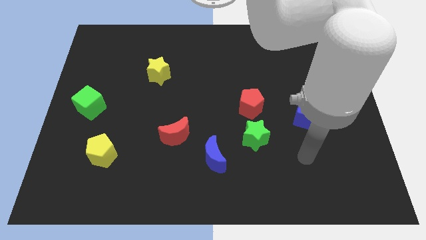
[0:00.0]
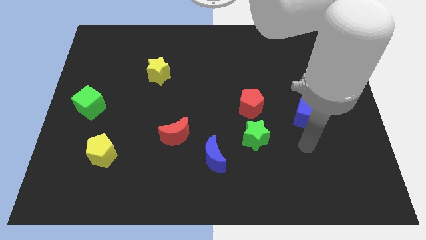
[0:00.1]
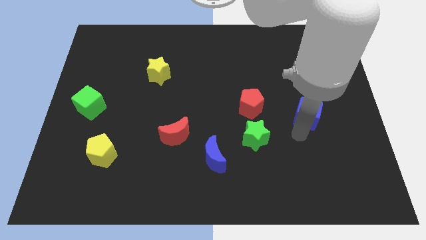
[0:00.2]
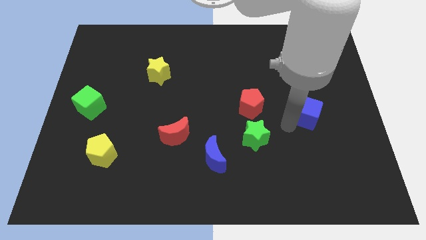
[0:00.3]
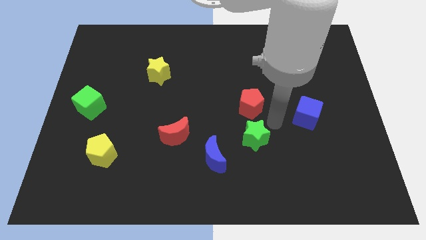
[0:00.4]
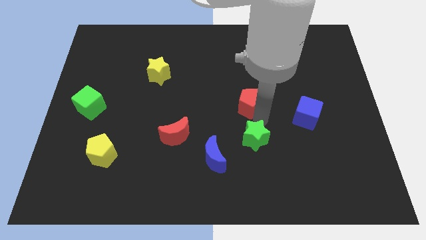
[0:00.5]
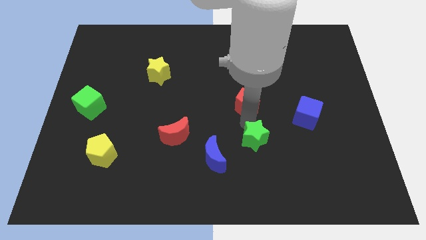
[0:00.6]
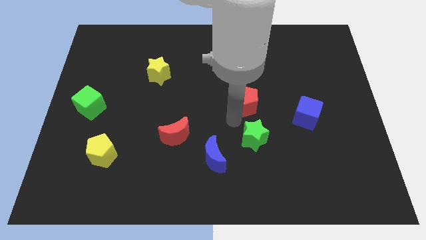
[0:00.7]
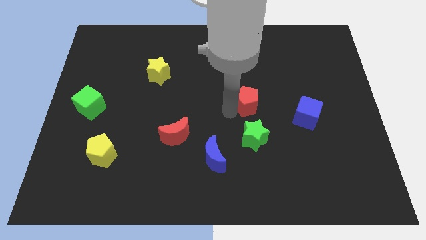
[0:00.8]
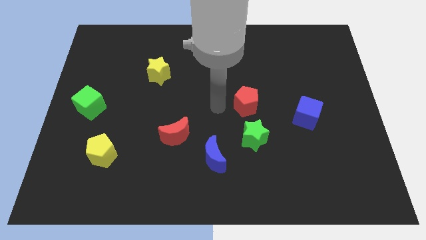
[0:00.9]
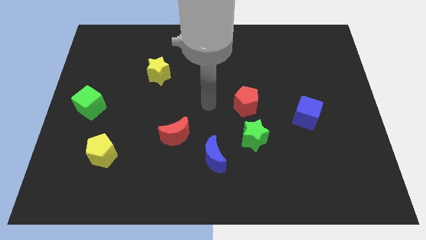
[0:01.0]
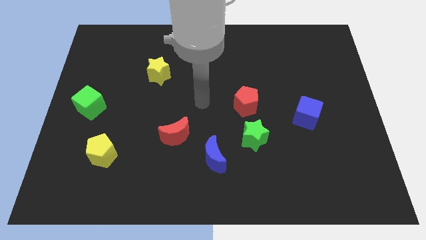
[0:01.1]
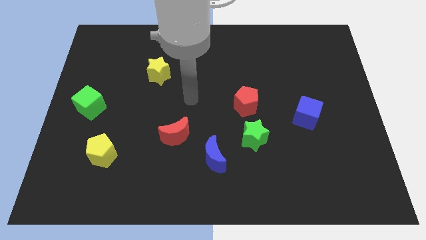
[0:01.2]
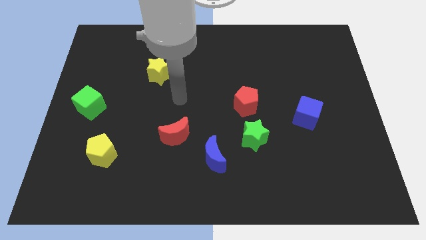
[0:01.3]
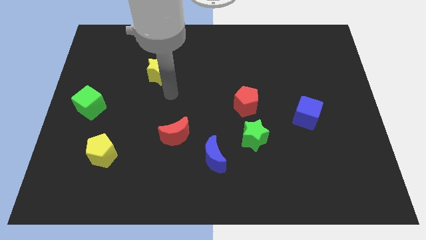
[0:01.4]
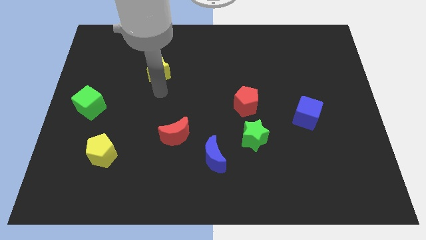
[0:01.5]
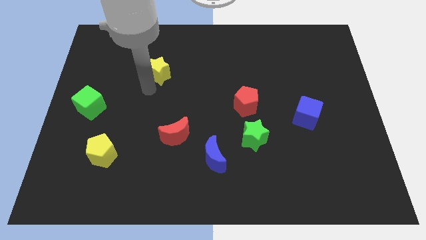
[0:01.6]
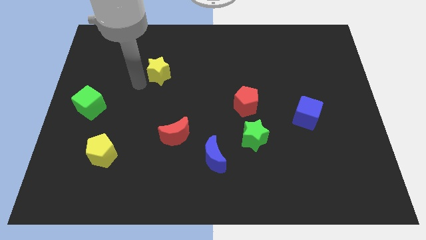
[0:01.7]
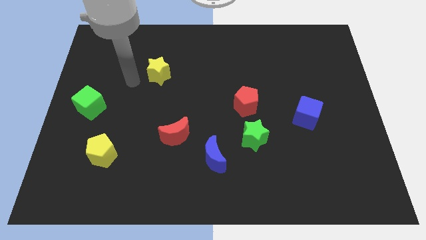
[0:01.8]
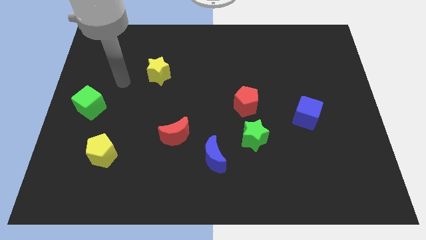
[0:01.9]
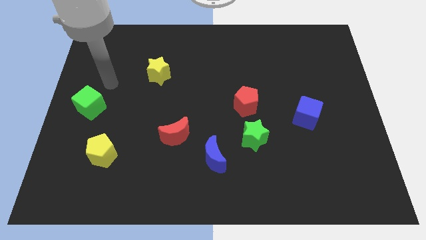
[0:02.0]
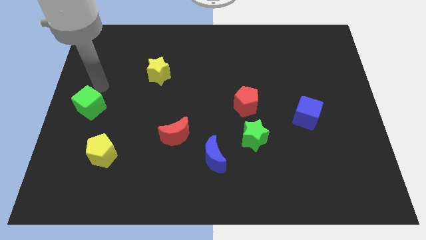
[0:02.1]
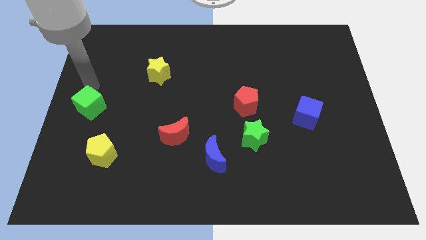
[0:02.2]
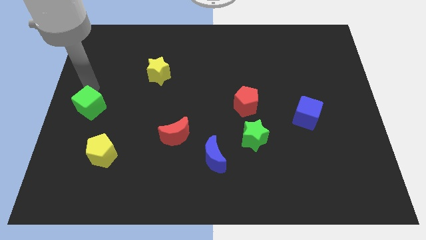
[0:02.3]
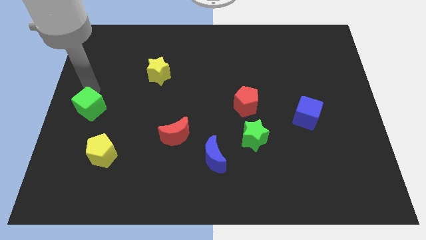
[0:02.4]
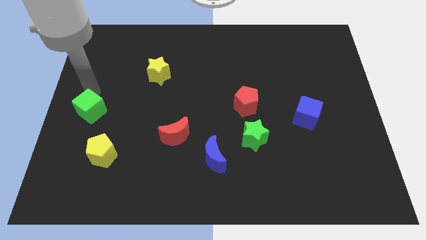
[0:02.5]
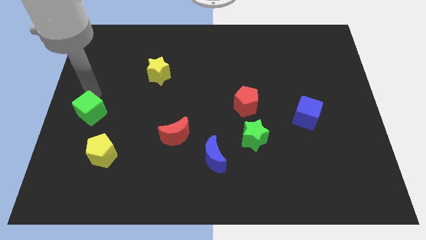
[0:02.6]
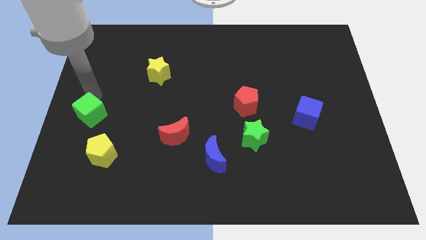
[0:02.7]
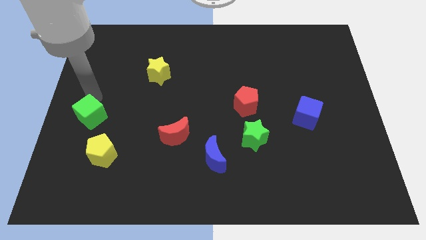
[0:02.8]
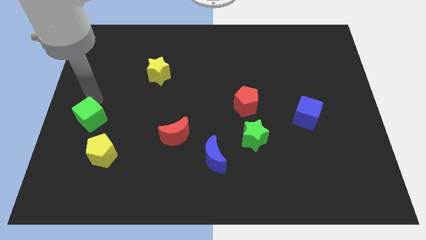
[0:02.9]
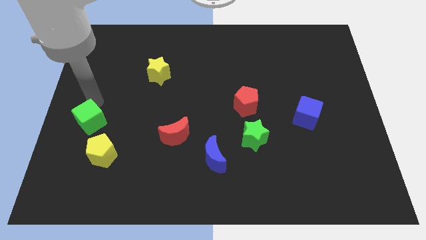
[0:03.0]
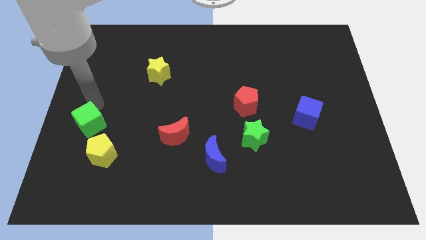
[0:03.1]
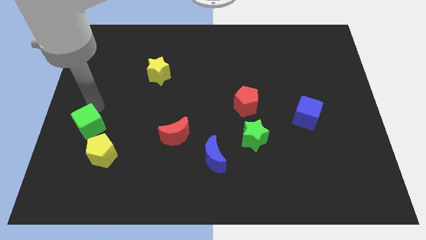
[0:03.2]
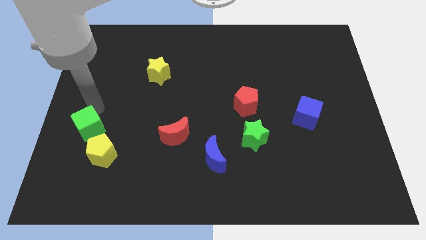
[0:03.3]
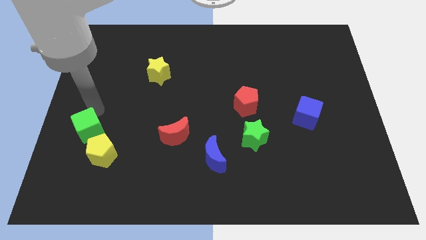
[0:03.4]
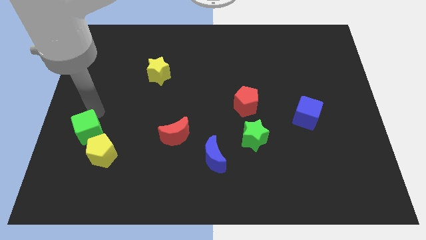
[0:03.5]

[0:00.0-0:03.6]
move the green cube slightly downwards

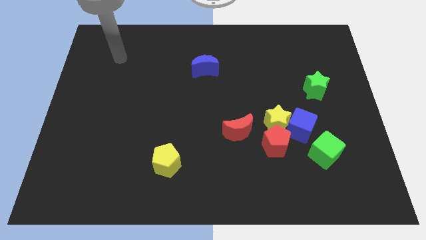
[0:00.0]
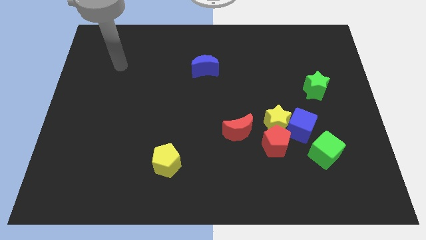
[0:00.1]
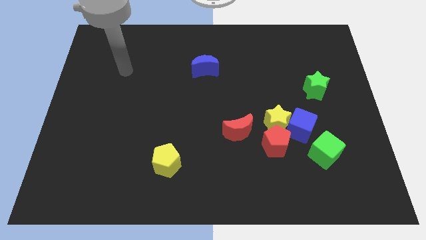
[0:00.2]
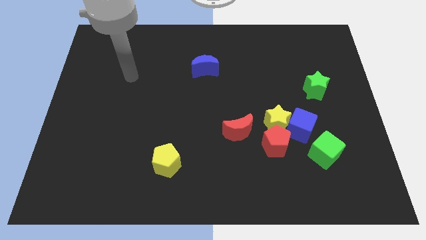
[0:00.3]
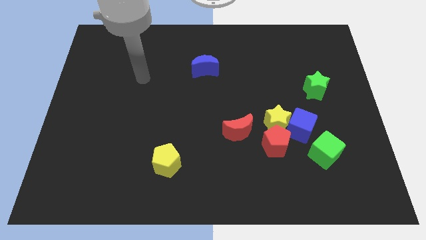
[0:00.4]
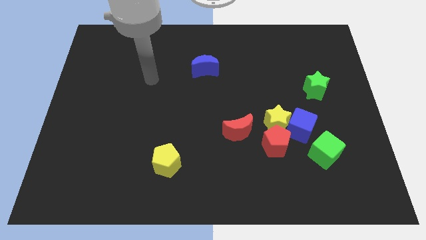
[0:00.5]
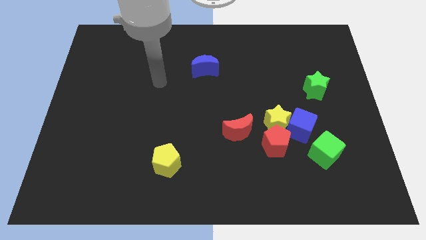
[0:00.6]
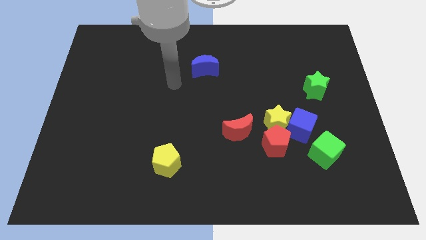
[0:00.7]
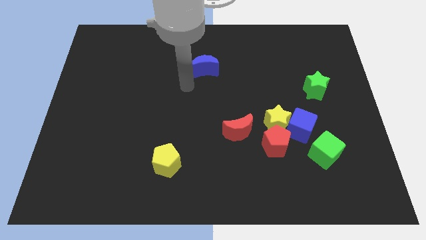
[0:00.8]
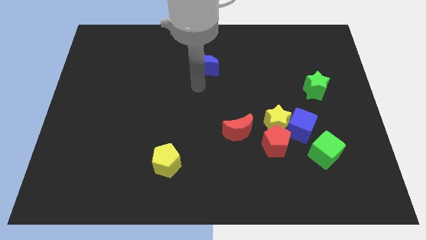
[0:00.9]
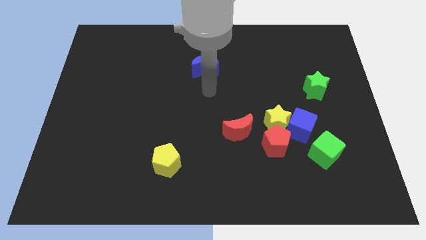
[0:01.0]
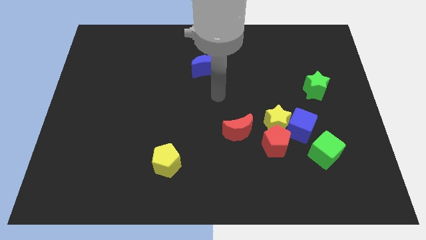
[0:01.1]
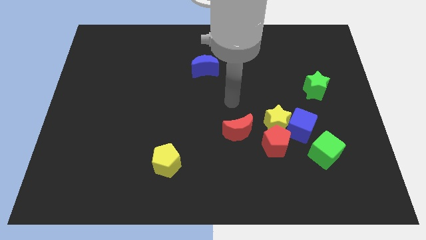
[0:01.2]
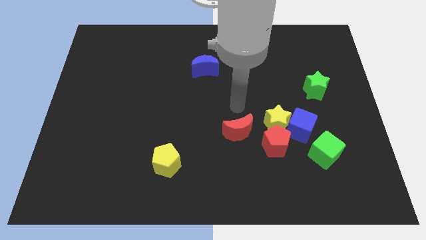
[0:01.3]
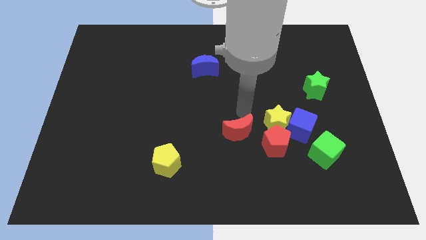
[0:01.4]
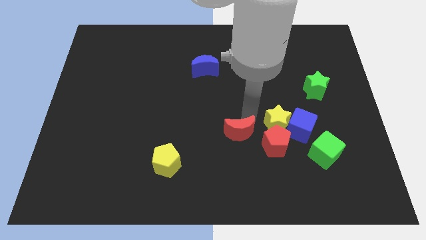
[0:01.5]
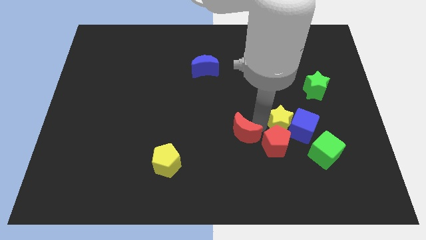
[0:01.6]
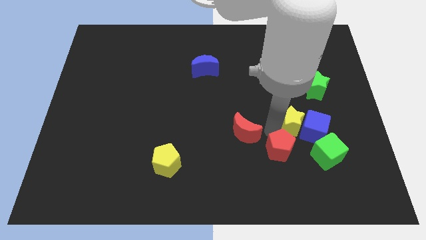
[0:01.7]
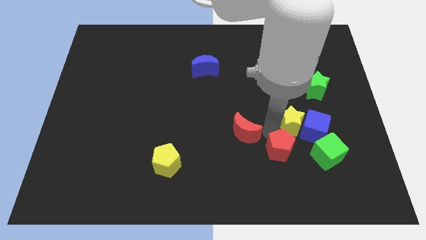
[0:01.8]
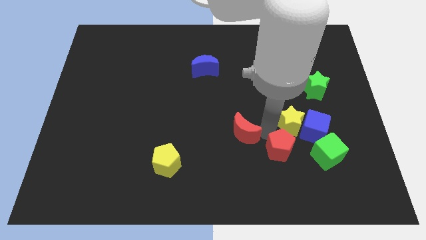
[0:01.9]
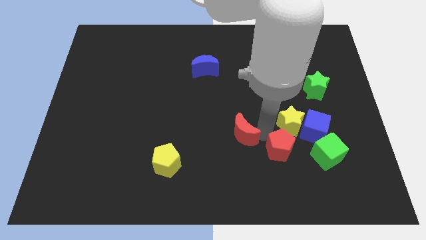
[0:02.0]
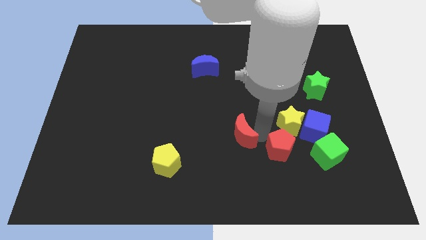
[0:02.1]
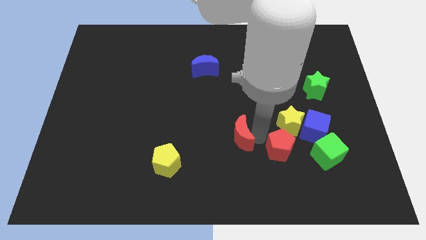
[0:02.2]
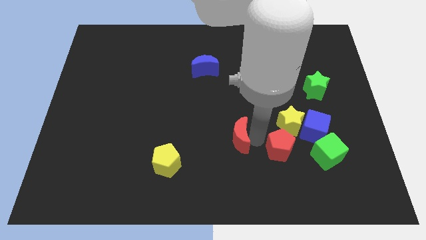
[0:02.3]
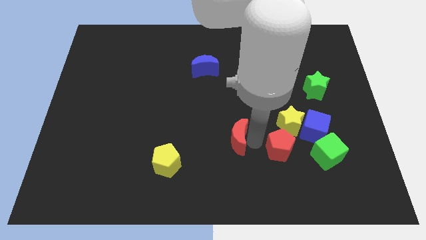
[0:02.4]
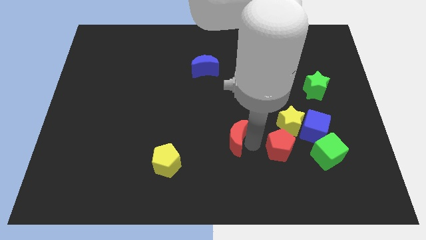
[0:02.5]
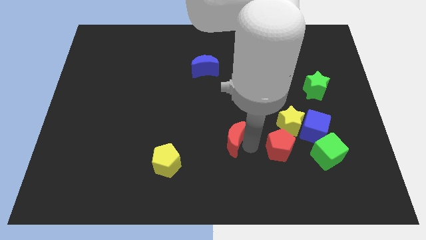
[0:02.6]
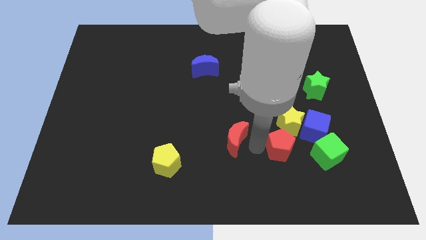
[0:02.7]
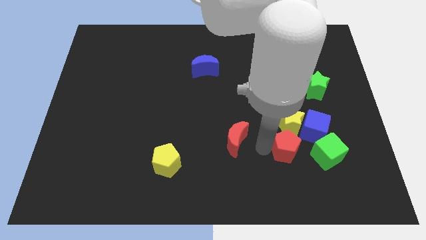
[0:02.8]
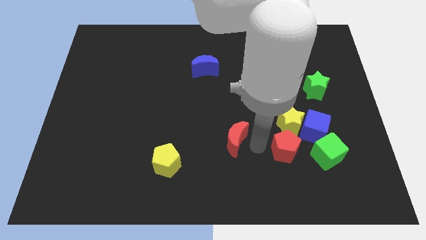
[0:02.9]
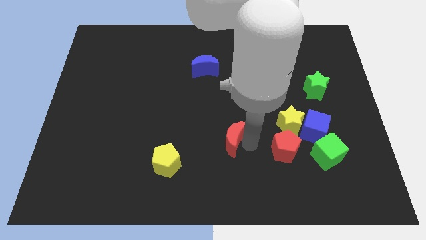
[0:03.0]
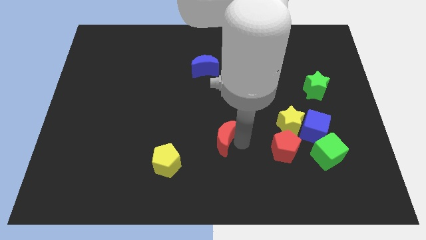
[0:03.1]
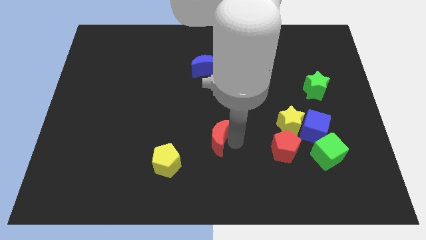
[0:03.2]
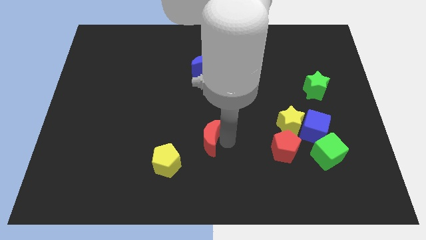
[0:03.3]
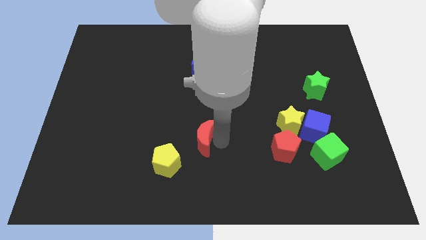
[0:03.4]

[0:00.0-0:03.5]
slide the red moon a bit left

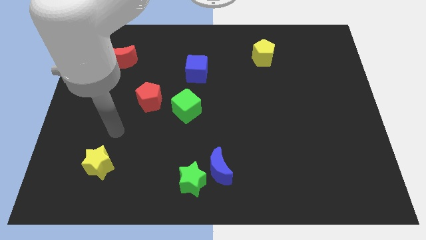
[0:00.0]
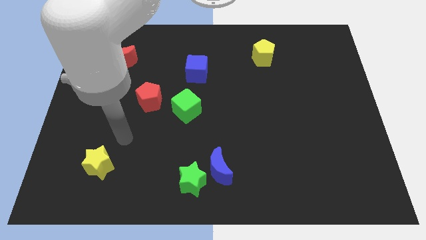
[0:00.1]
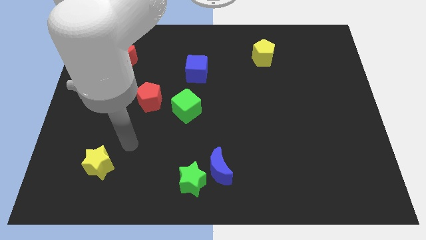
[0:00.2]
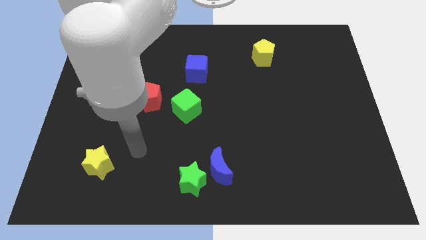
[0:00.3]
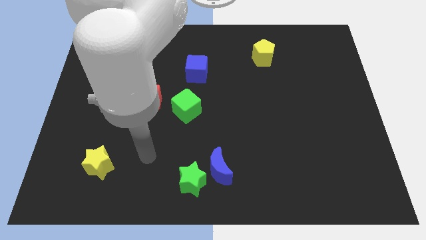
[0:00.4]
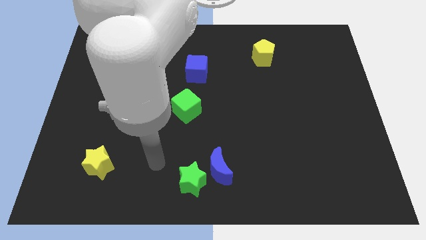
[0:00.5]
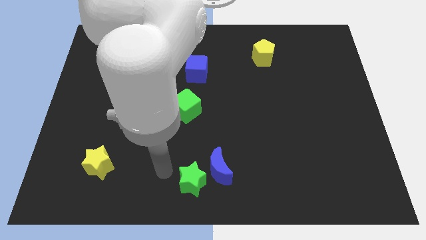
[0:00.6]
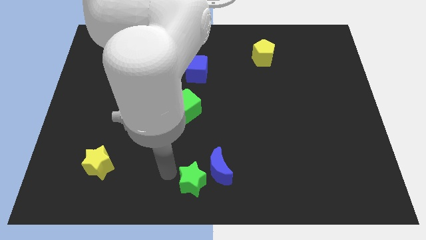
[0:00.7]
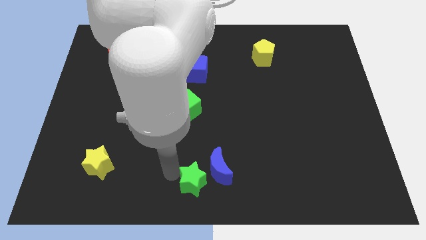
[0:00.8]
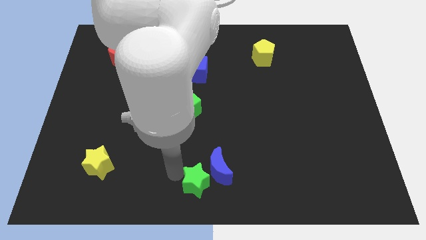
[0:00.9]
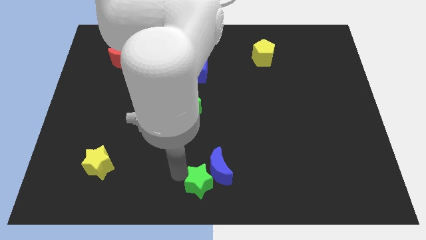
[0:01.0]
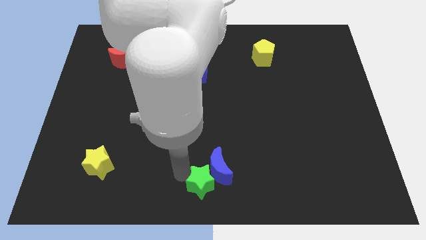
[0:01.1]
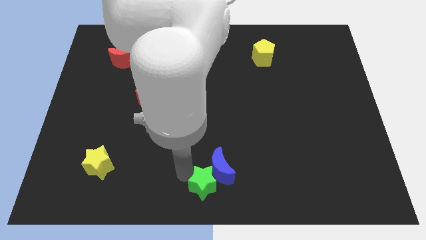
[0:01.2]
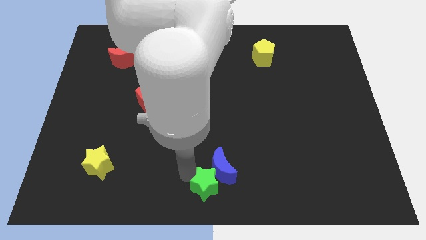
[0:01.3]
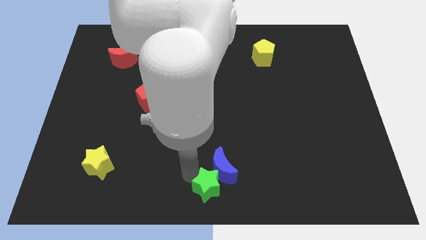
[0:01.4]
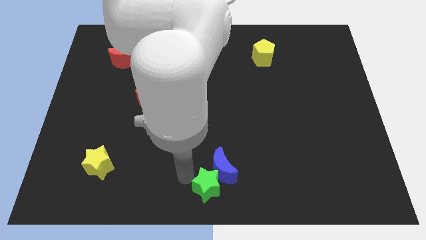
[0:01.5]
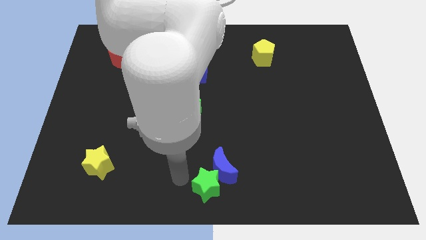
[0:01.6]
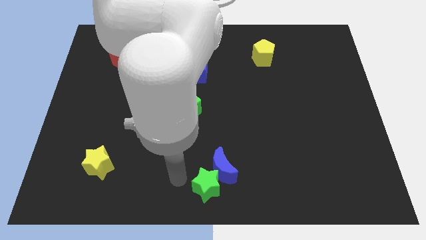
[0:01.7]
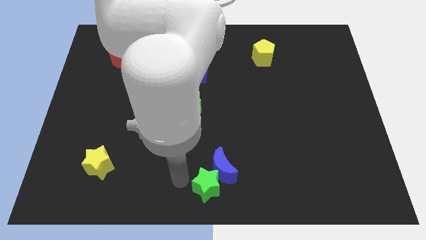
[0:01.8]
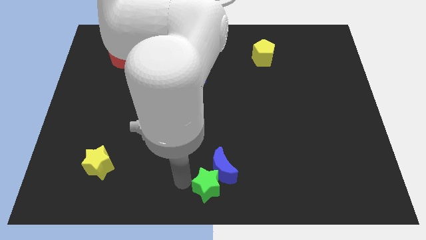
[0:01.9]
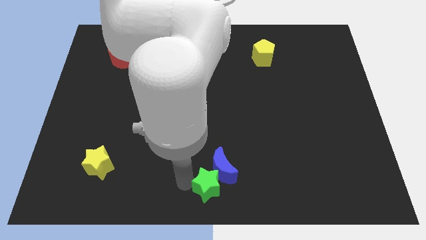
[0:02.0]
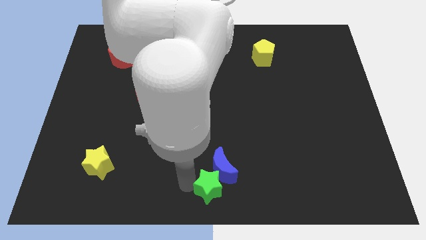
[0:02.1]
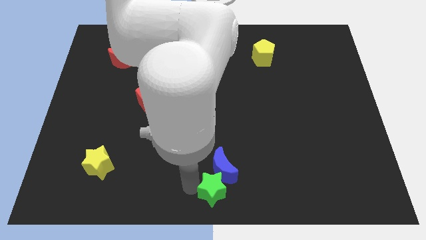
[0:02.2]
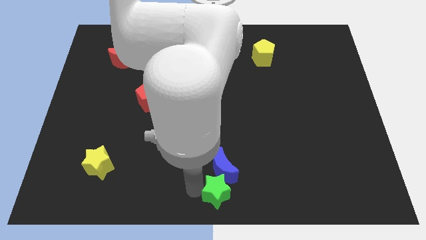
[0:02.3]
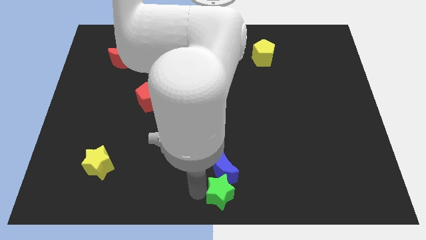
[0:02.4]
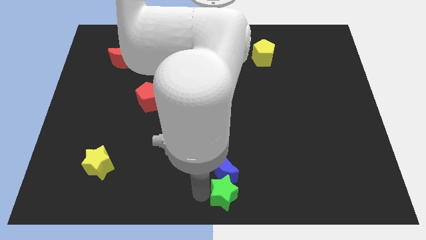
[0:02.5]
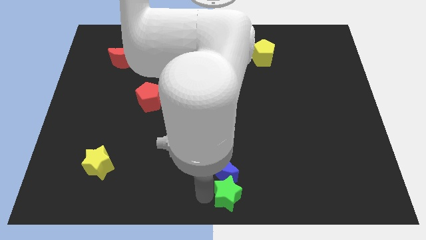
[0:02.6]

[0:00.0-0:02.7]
push the green star right a little bit
